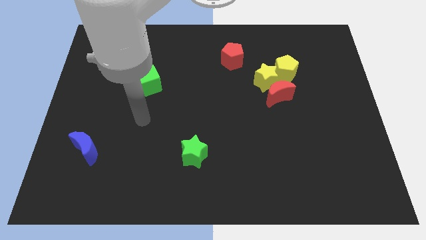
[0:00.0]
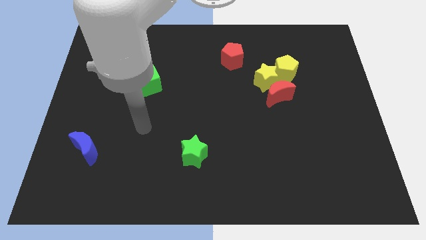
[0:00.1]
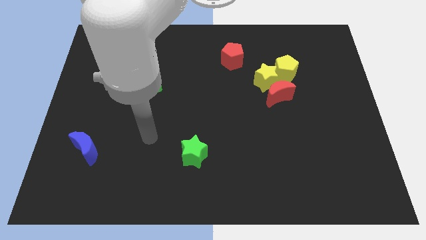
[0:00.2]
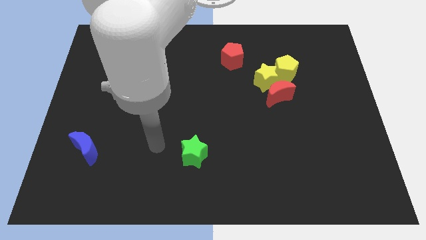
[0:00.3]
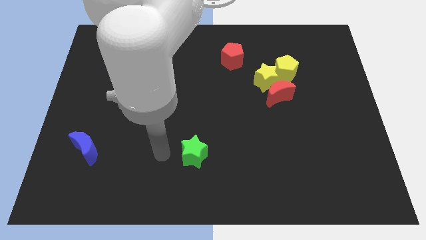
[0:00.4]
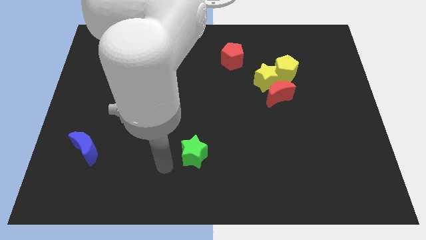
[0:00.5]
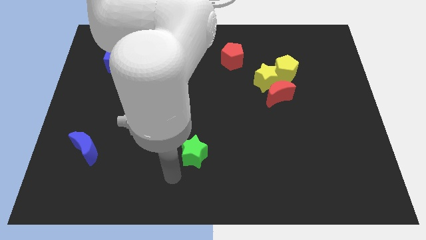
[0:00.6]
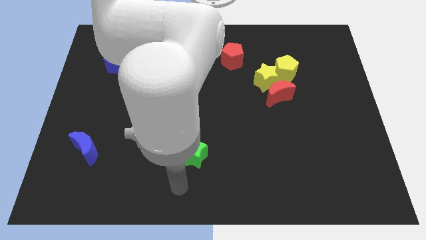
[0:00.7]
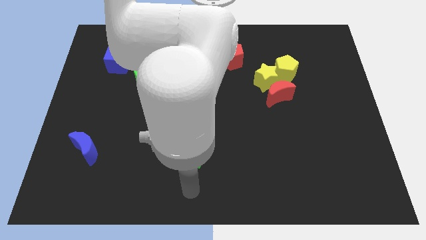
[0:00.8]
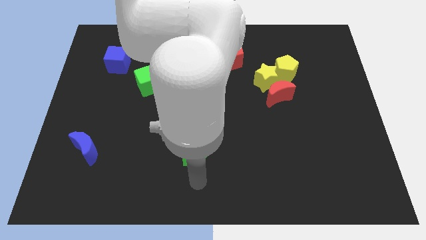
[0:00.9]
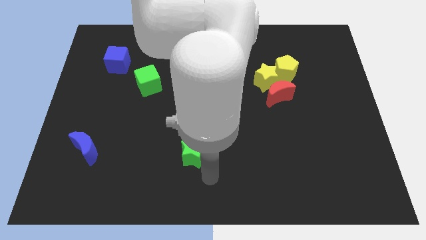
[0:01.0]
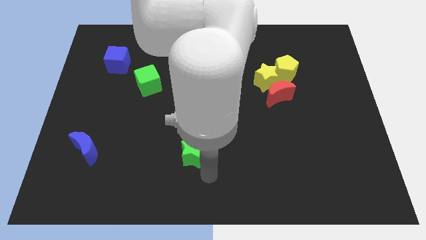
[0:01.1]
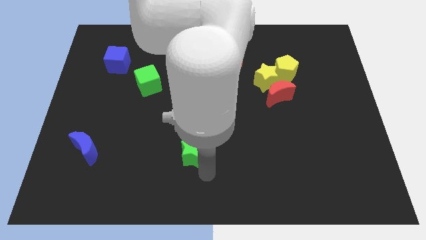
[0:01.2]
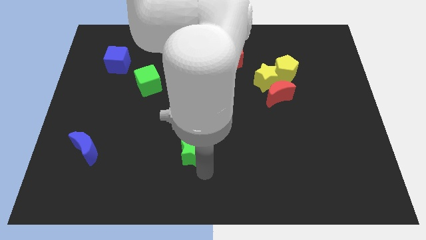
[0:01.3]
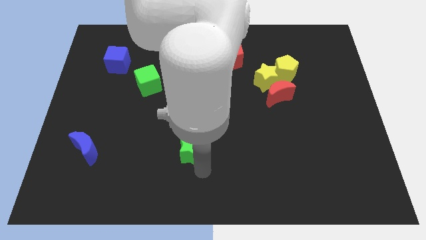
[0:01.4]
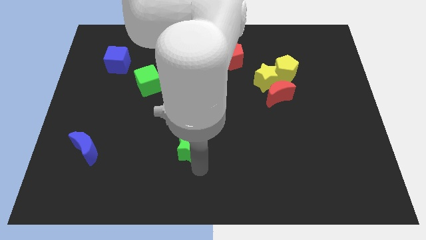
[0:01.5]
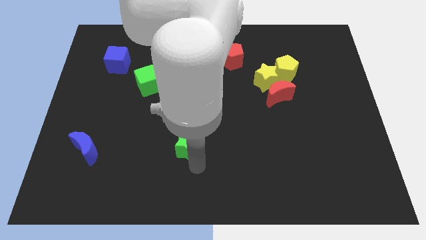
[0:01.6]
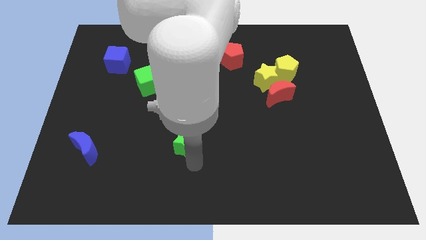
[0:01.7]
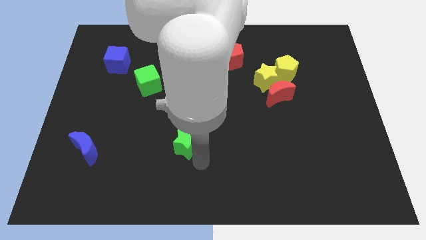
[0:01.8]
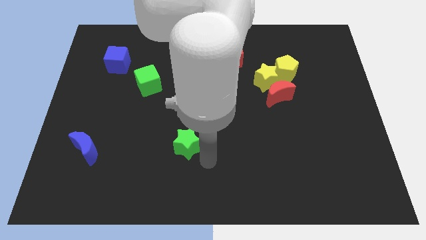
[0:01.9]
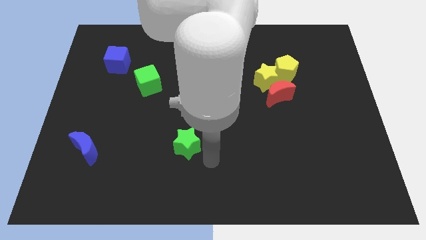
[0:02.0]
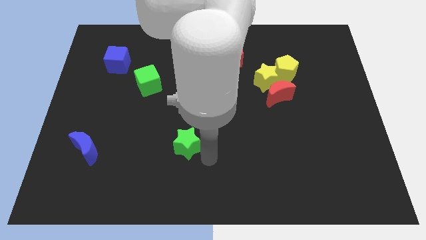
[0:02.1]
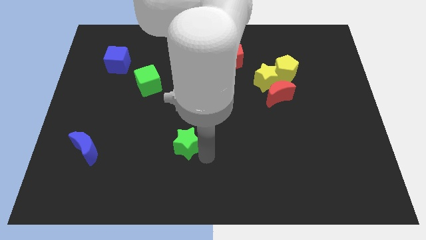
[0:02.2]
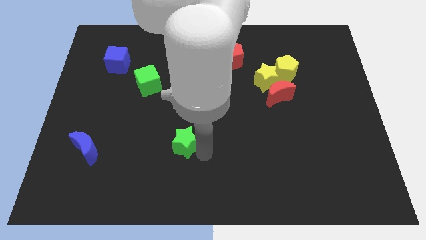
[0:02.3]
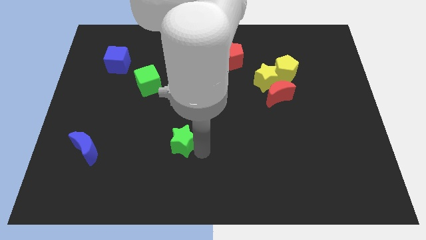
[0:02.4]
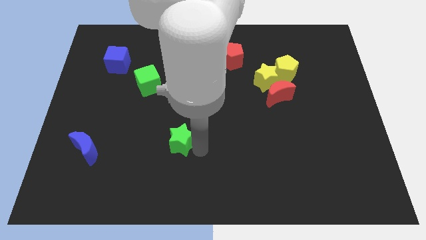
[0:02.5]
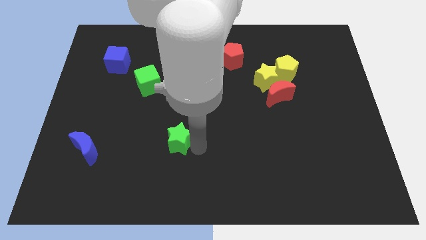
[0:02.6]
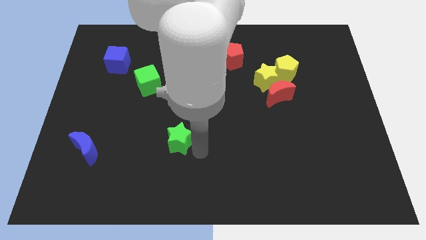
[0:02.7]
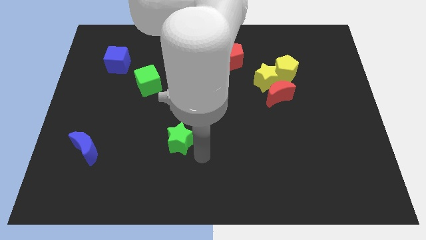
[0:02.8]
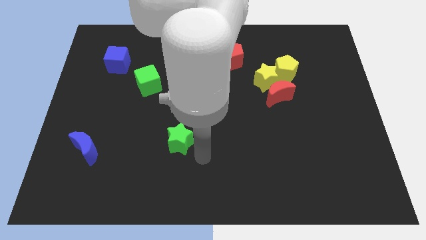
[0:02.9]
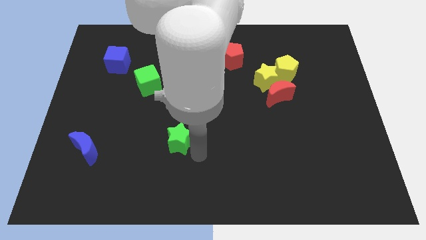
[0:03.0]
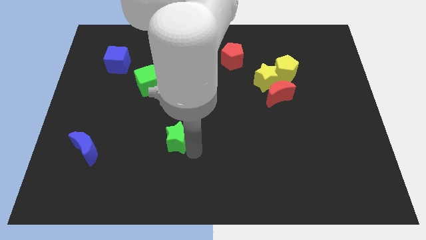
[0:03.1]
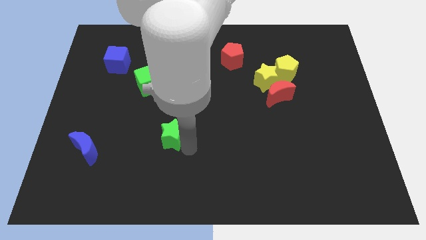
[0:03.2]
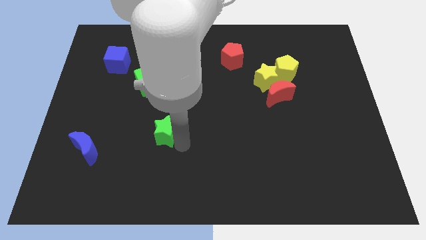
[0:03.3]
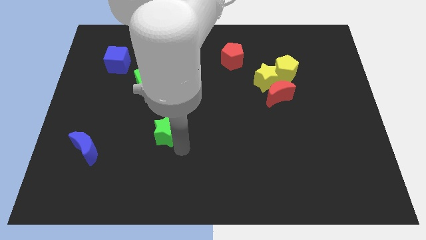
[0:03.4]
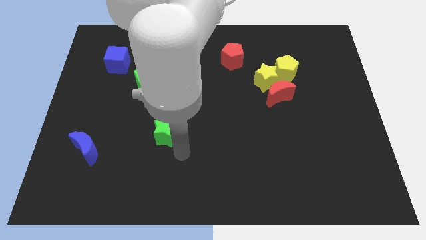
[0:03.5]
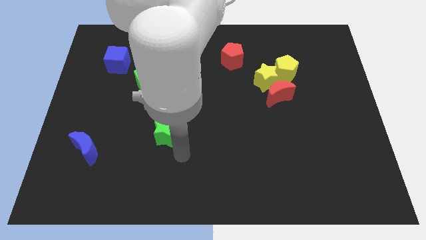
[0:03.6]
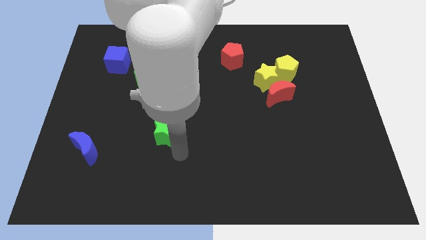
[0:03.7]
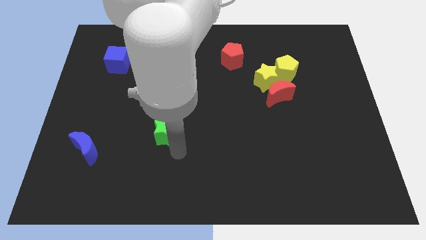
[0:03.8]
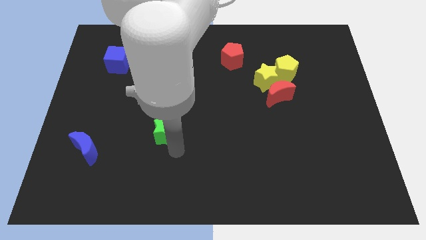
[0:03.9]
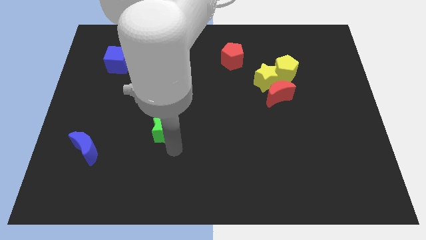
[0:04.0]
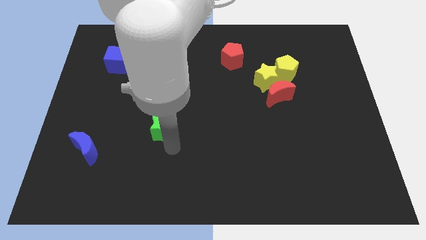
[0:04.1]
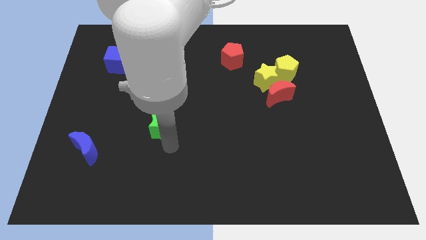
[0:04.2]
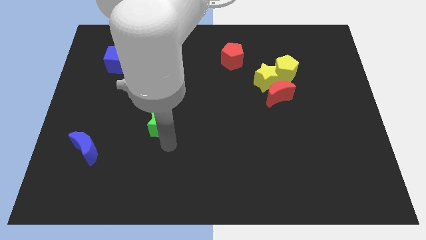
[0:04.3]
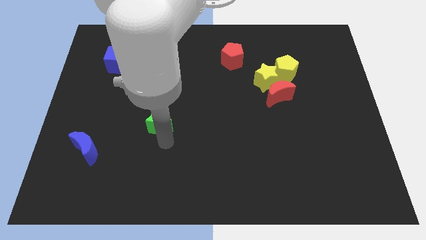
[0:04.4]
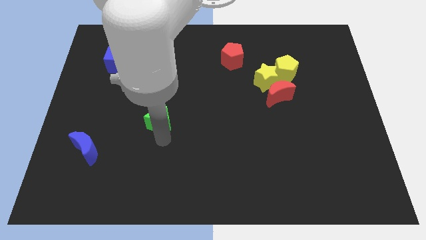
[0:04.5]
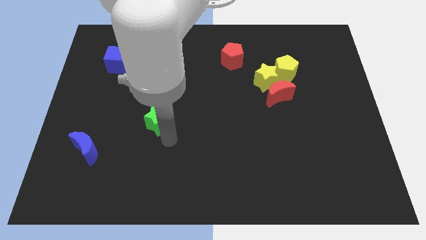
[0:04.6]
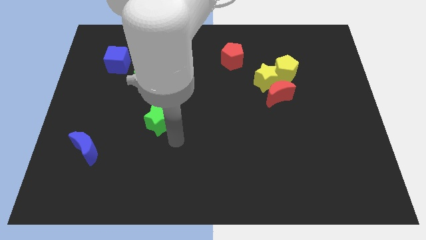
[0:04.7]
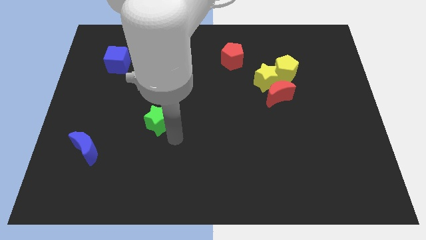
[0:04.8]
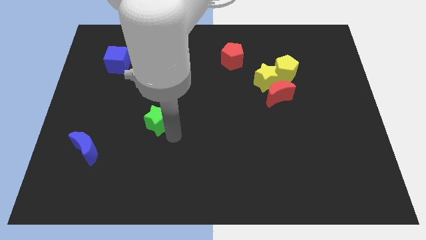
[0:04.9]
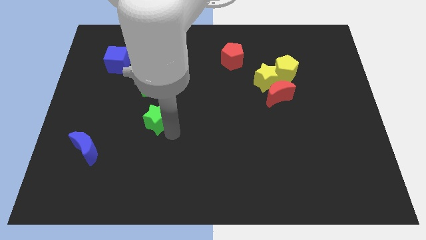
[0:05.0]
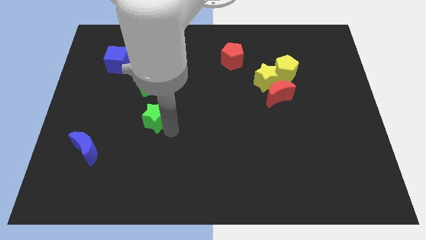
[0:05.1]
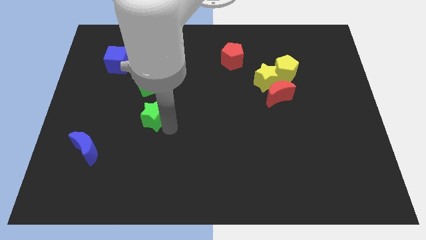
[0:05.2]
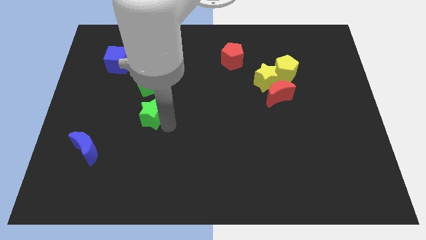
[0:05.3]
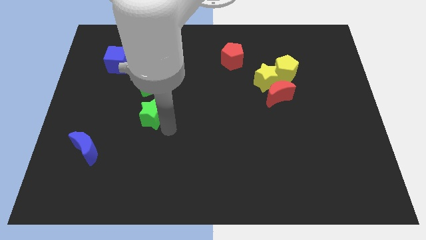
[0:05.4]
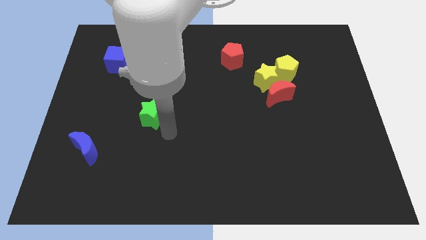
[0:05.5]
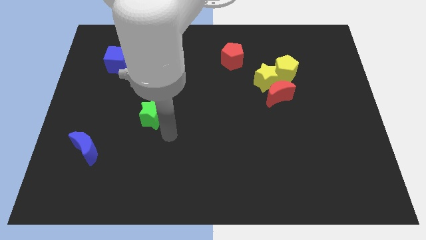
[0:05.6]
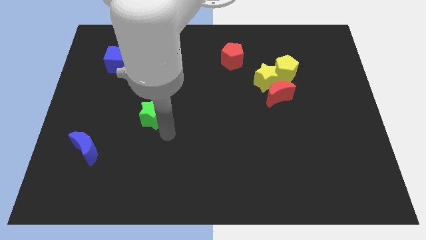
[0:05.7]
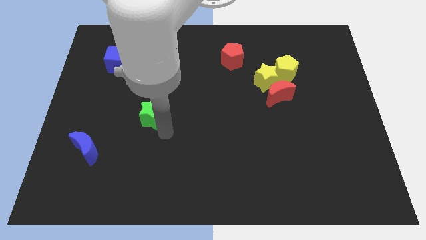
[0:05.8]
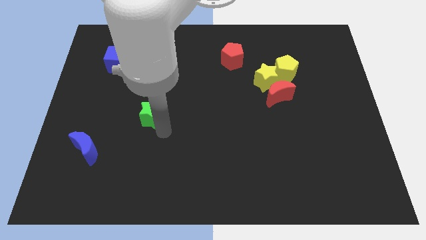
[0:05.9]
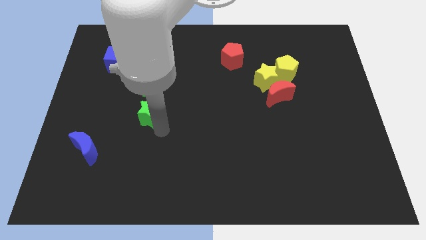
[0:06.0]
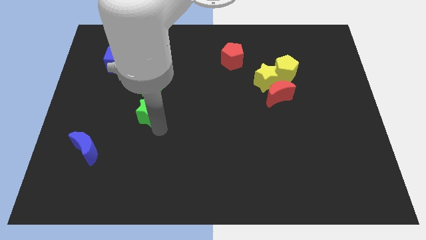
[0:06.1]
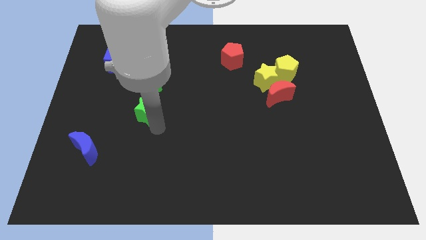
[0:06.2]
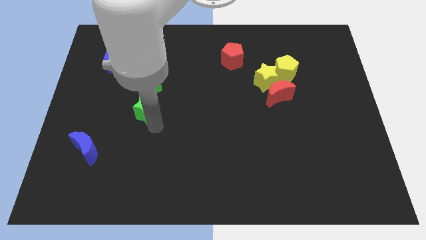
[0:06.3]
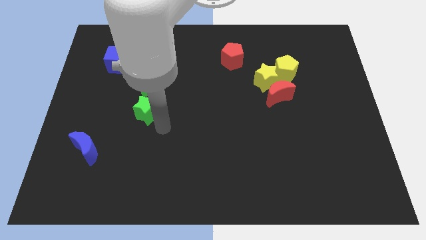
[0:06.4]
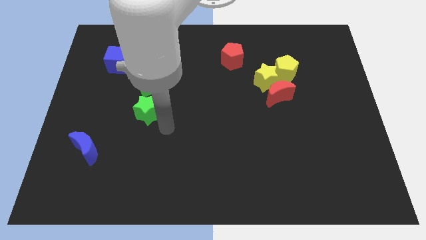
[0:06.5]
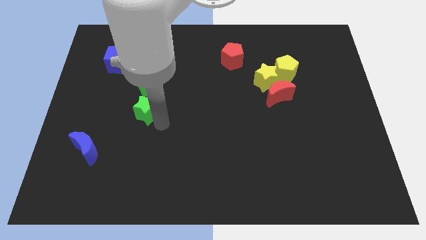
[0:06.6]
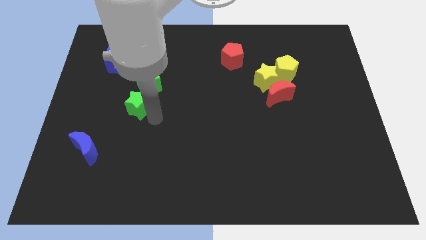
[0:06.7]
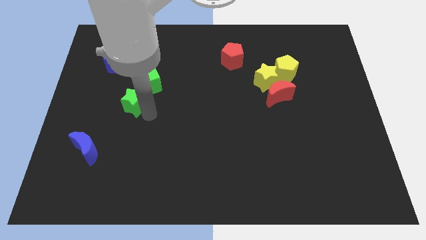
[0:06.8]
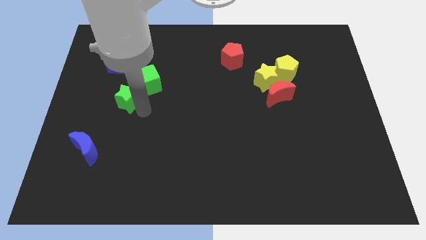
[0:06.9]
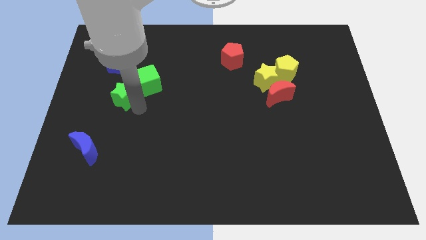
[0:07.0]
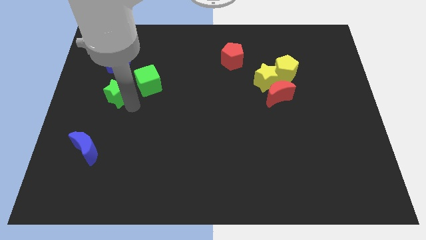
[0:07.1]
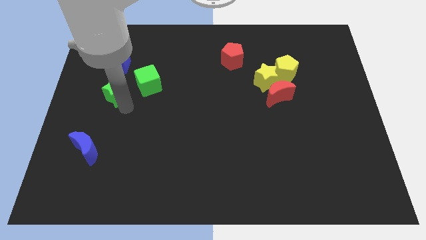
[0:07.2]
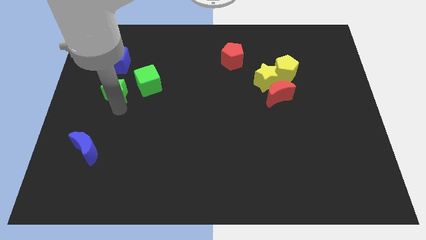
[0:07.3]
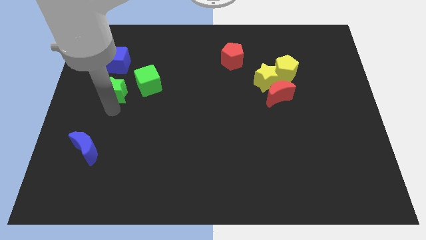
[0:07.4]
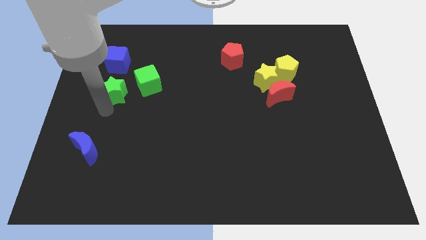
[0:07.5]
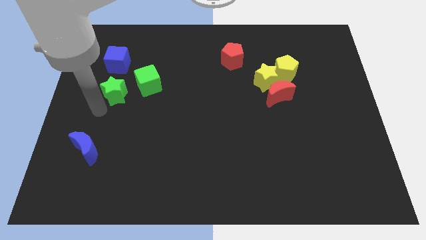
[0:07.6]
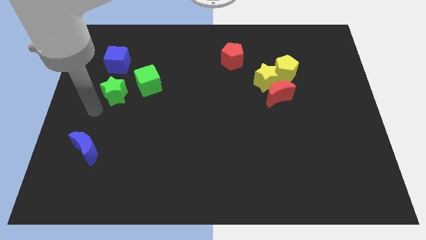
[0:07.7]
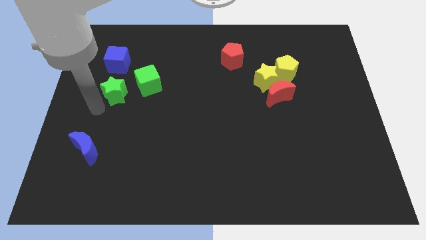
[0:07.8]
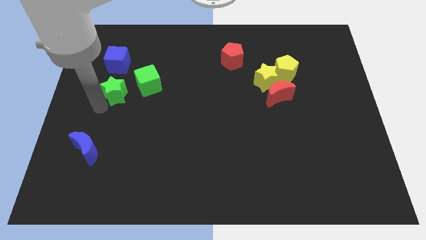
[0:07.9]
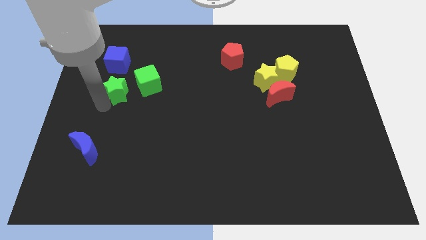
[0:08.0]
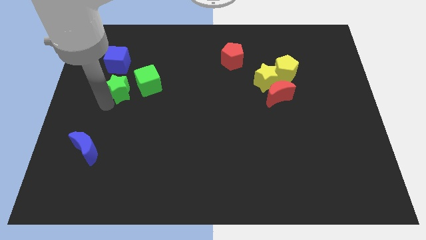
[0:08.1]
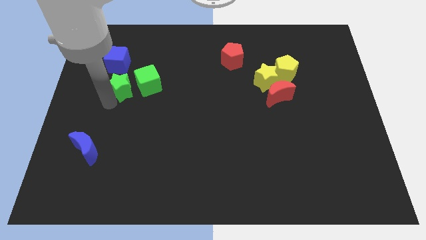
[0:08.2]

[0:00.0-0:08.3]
slide the green star diagonally down and to the right of the blue cube
